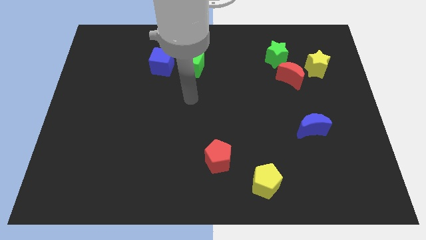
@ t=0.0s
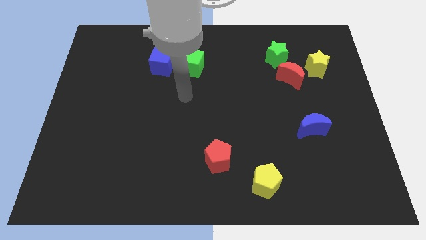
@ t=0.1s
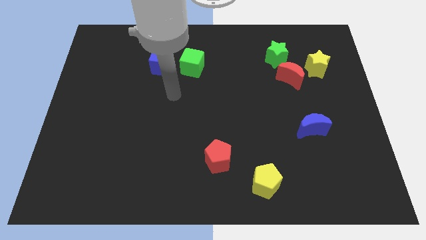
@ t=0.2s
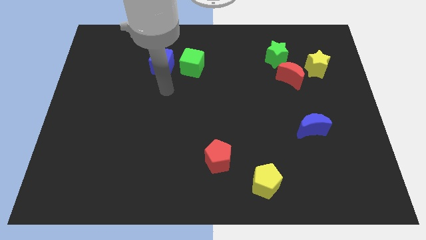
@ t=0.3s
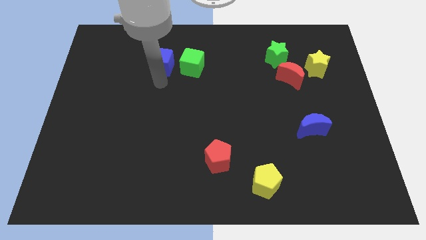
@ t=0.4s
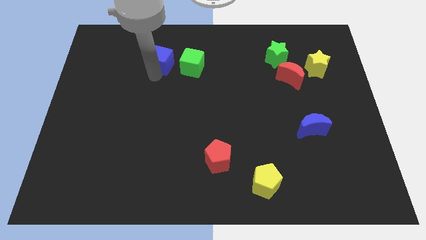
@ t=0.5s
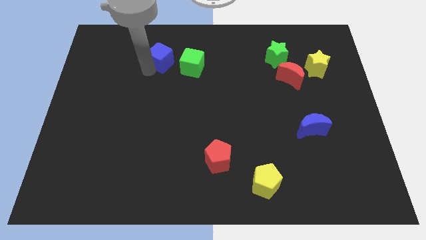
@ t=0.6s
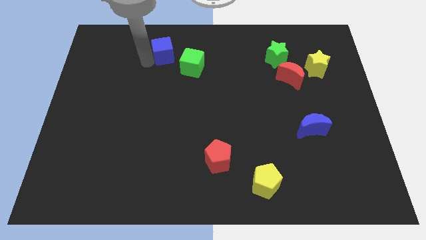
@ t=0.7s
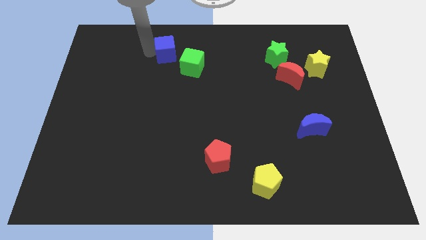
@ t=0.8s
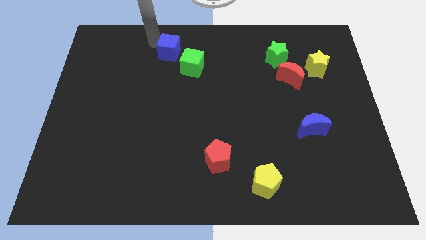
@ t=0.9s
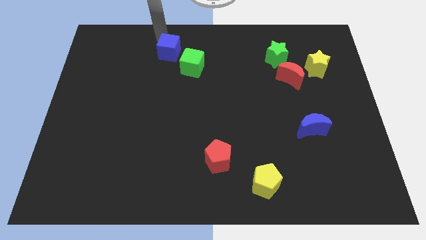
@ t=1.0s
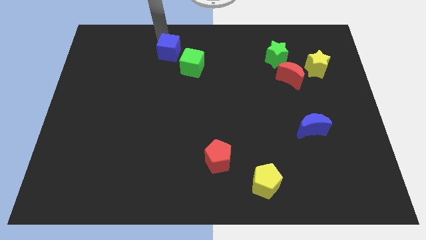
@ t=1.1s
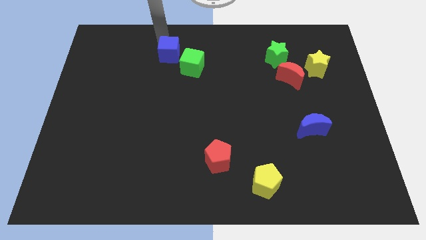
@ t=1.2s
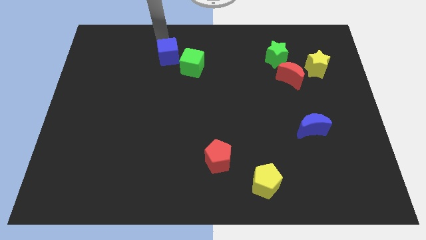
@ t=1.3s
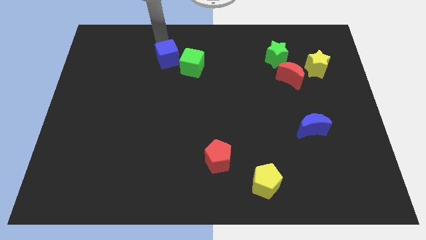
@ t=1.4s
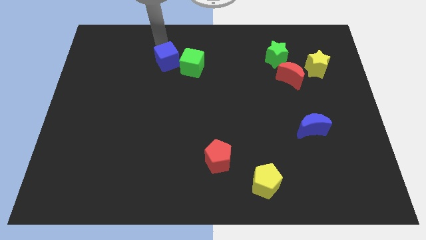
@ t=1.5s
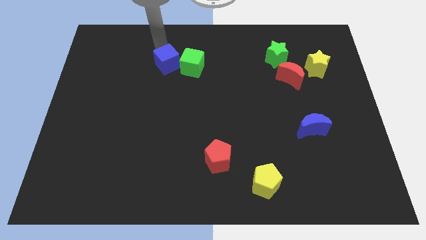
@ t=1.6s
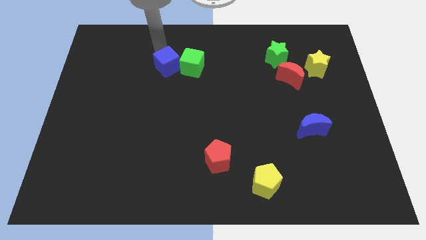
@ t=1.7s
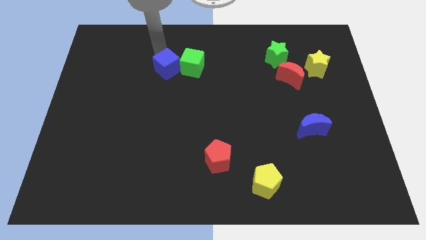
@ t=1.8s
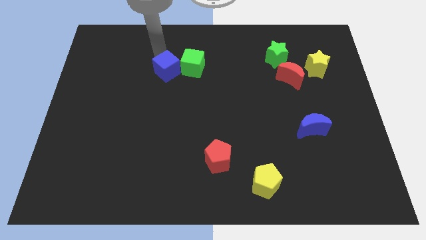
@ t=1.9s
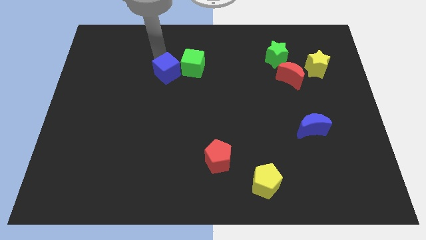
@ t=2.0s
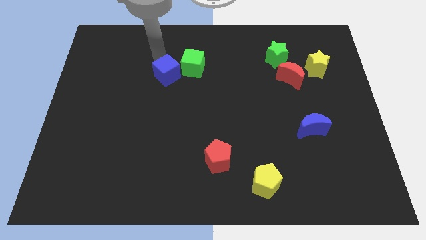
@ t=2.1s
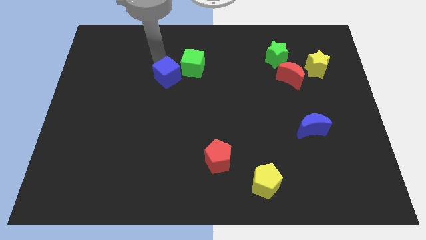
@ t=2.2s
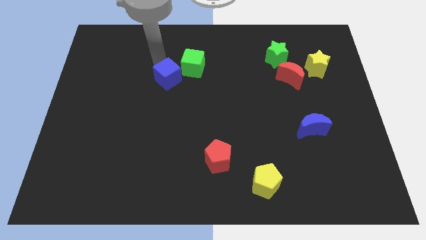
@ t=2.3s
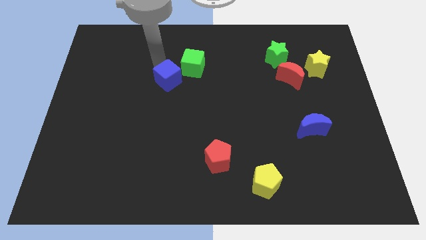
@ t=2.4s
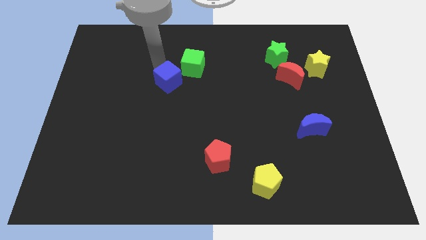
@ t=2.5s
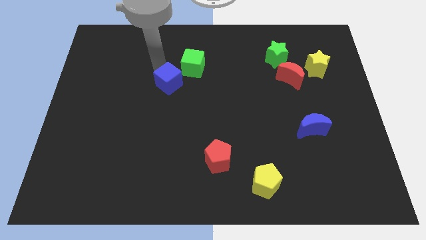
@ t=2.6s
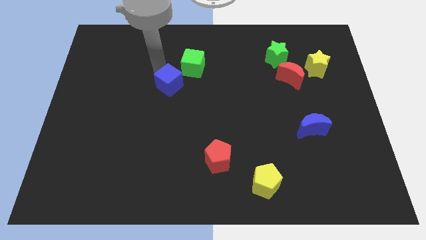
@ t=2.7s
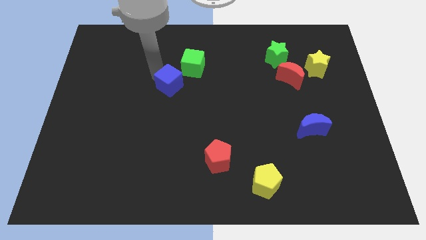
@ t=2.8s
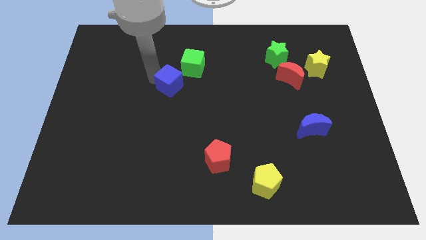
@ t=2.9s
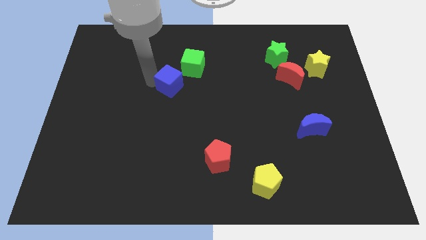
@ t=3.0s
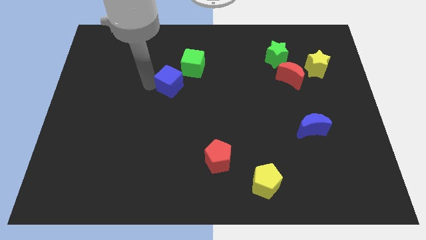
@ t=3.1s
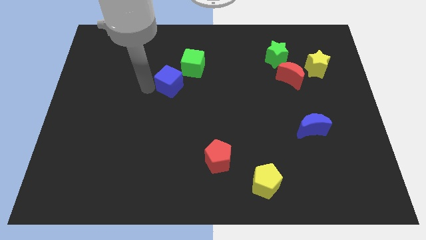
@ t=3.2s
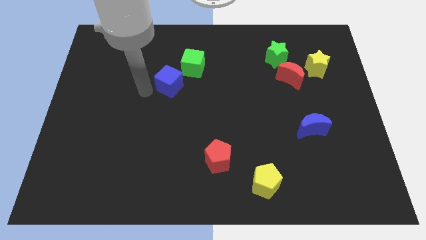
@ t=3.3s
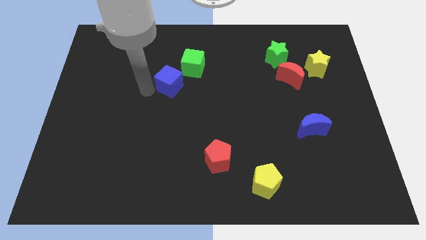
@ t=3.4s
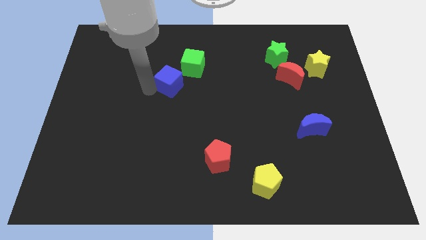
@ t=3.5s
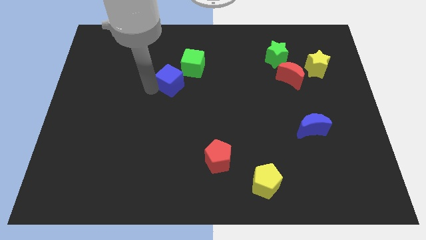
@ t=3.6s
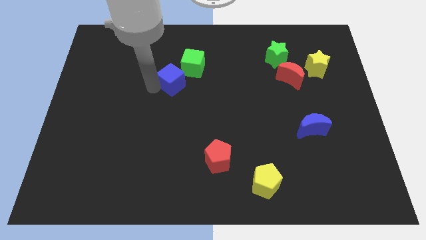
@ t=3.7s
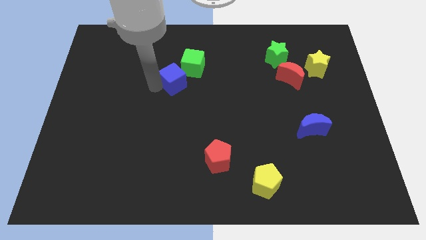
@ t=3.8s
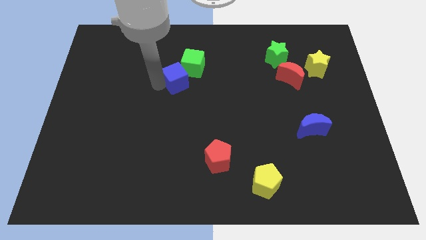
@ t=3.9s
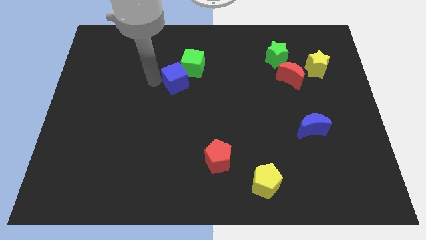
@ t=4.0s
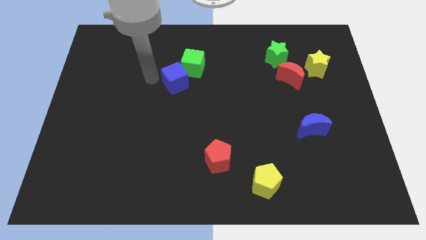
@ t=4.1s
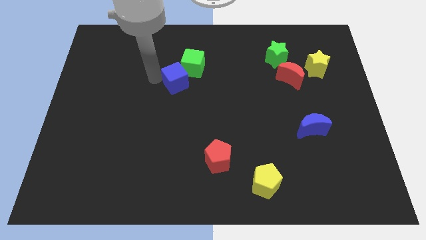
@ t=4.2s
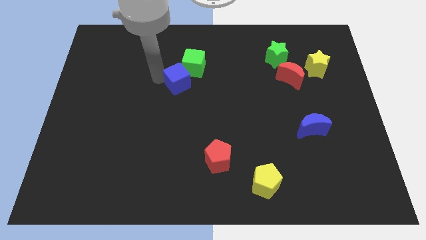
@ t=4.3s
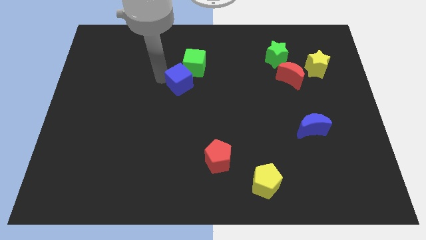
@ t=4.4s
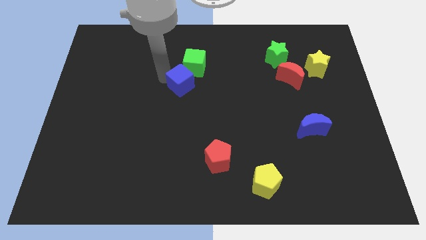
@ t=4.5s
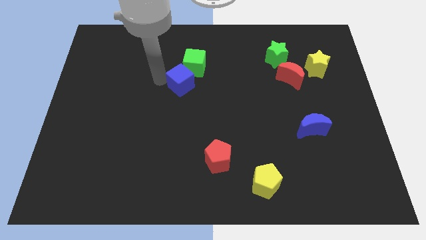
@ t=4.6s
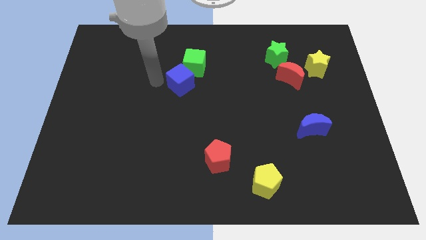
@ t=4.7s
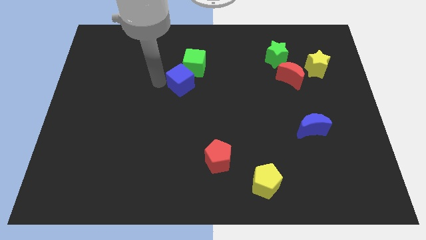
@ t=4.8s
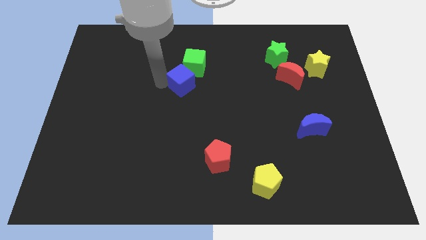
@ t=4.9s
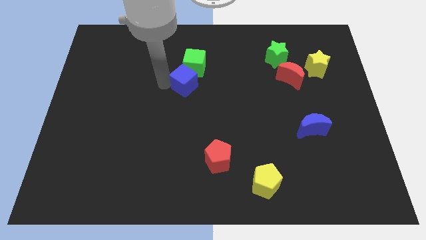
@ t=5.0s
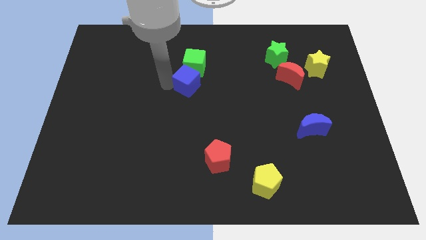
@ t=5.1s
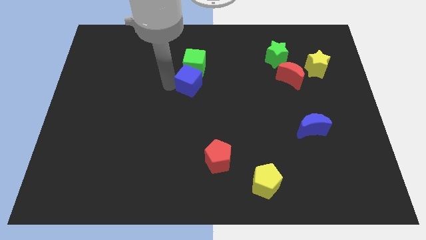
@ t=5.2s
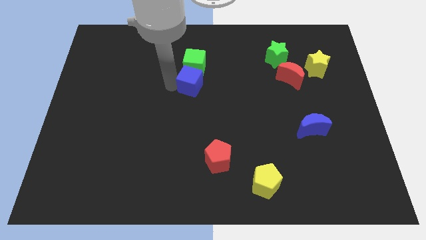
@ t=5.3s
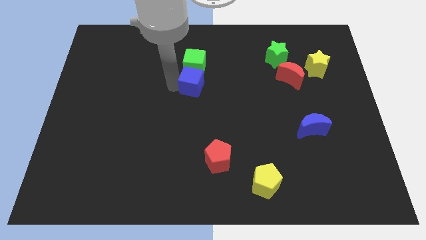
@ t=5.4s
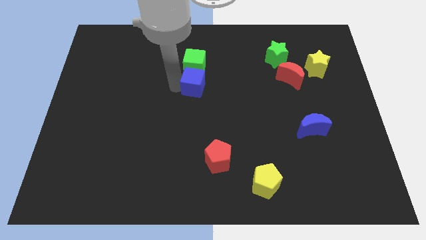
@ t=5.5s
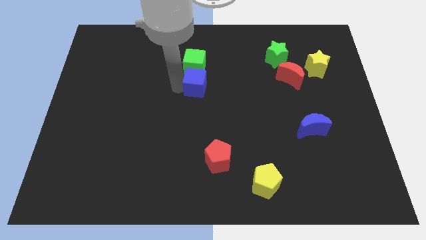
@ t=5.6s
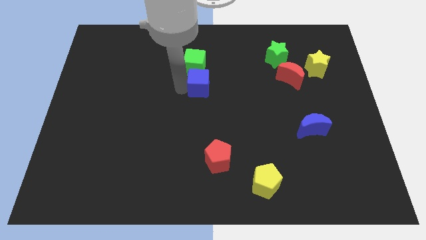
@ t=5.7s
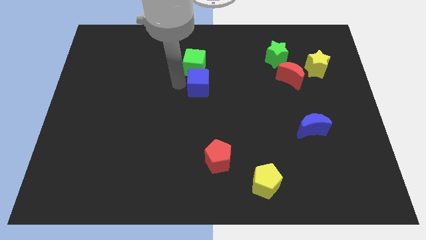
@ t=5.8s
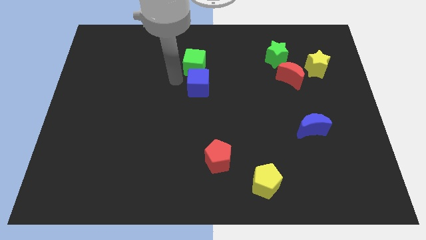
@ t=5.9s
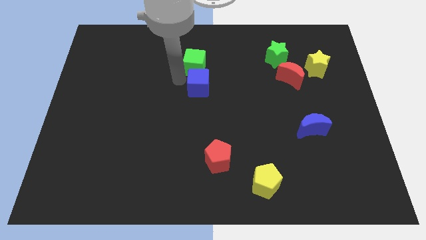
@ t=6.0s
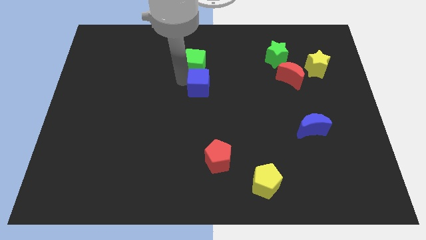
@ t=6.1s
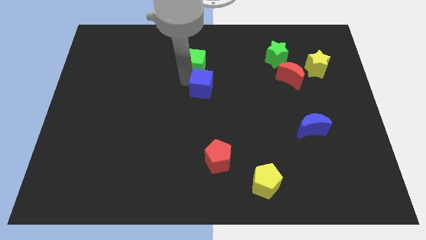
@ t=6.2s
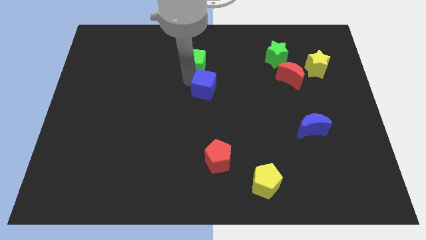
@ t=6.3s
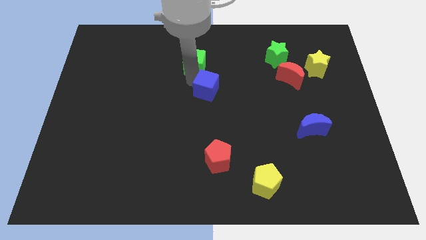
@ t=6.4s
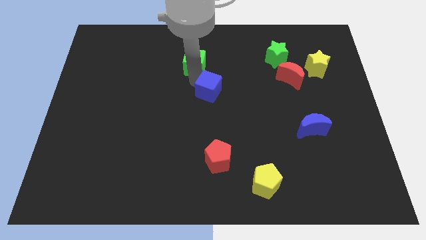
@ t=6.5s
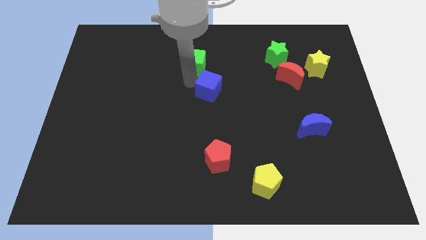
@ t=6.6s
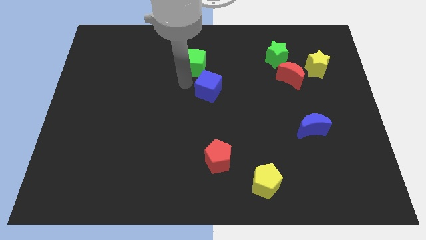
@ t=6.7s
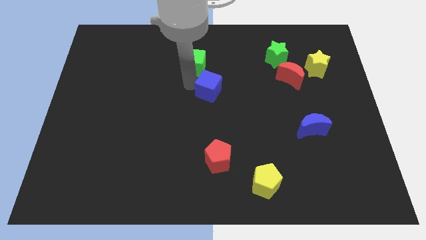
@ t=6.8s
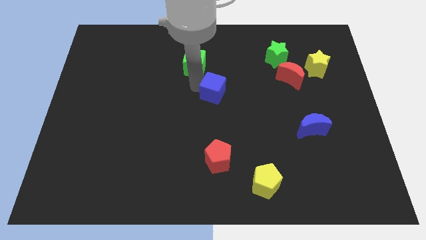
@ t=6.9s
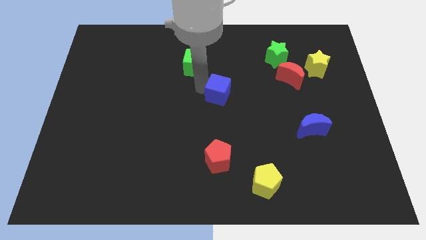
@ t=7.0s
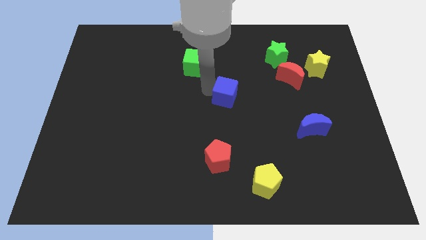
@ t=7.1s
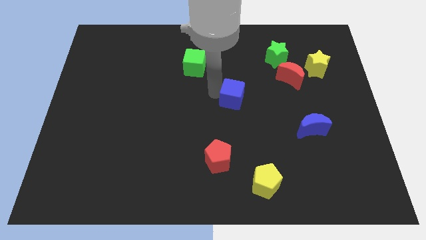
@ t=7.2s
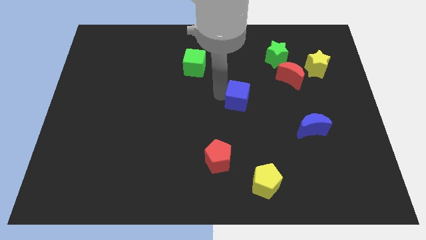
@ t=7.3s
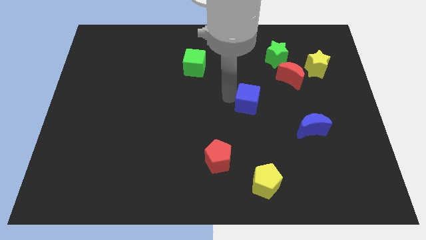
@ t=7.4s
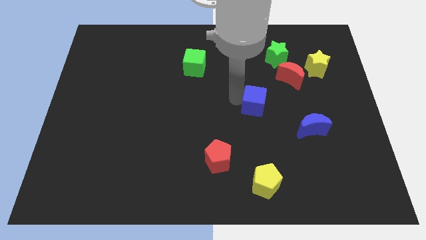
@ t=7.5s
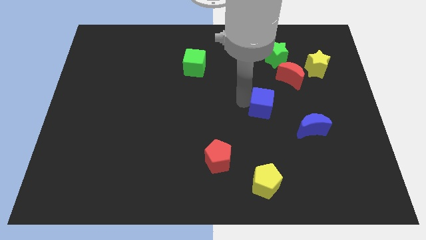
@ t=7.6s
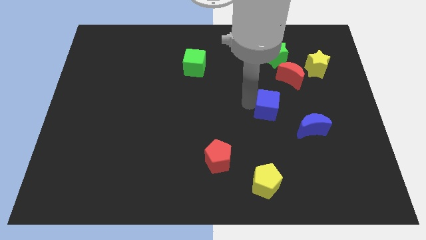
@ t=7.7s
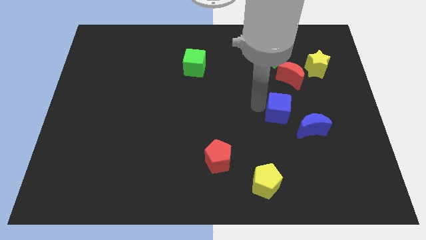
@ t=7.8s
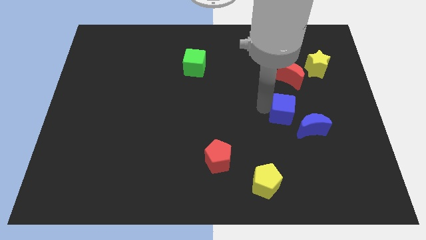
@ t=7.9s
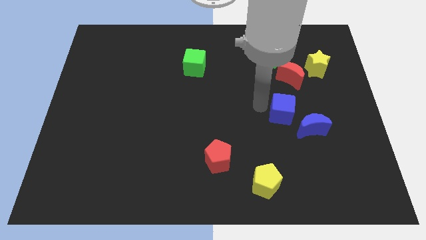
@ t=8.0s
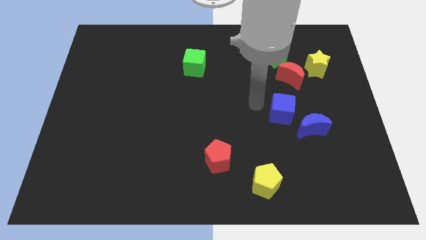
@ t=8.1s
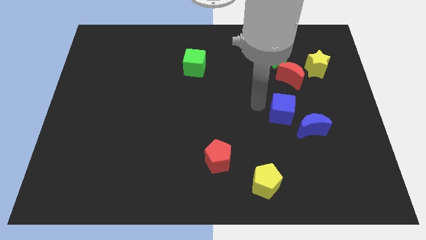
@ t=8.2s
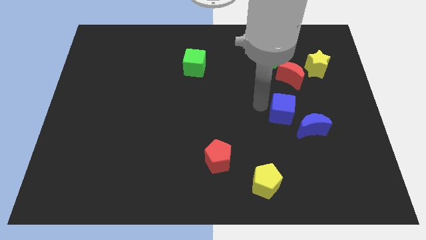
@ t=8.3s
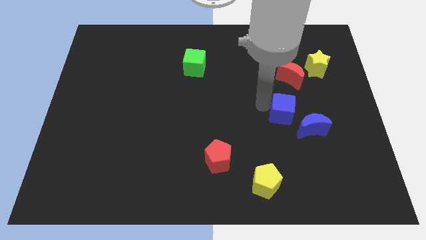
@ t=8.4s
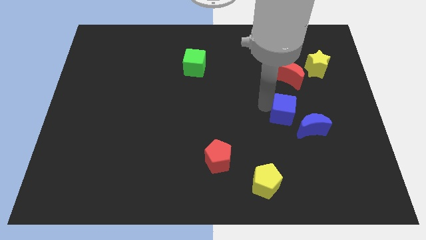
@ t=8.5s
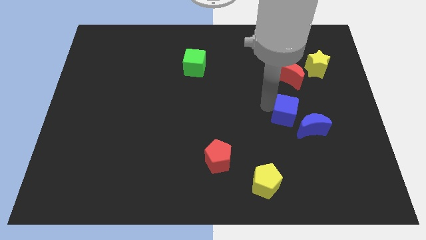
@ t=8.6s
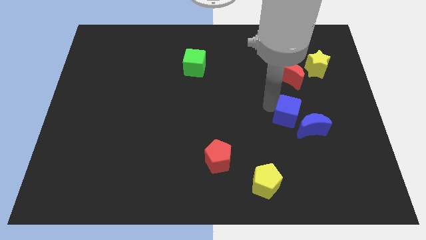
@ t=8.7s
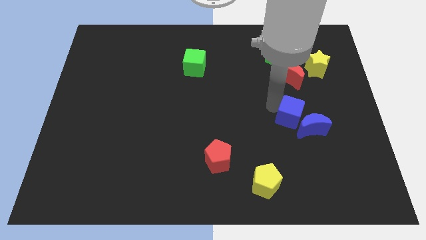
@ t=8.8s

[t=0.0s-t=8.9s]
push the blue cube to the blue moon
